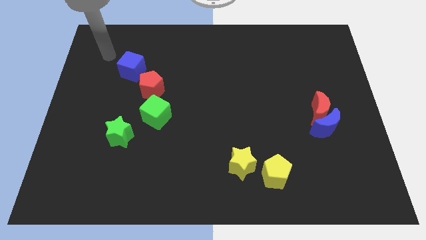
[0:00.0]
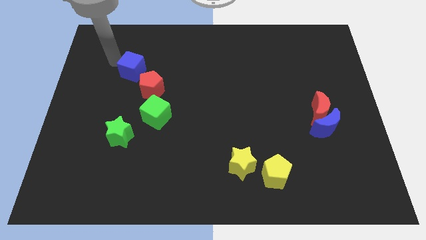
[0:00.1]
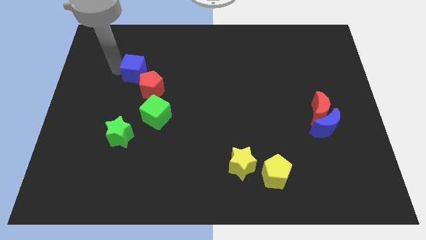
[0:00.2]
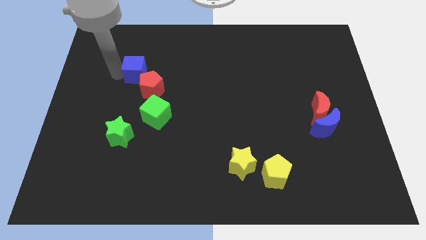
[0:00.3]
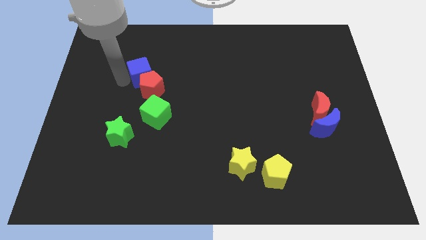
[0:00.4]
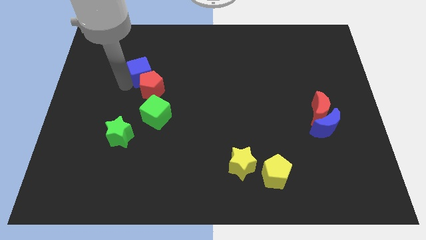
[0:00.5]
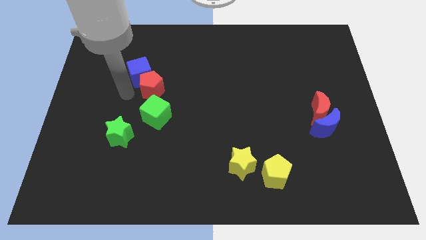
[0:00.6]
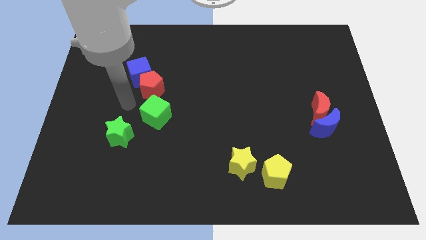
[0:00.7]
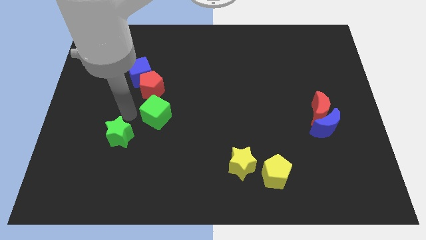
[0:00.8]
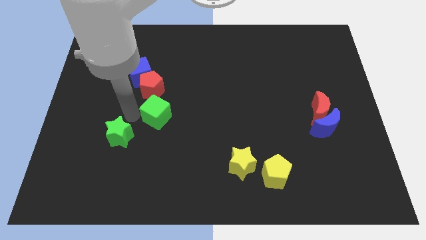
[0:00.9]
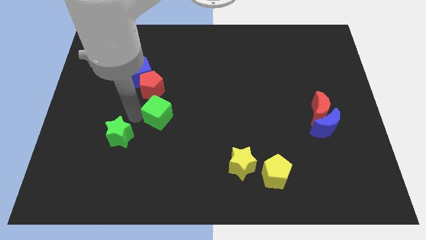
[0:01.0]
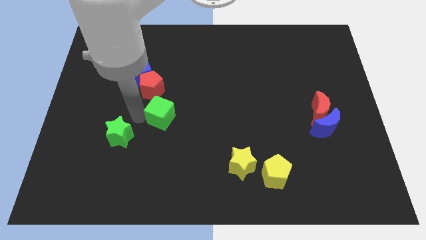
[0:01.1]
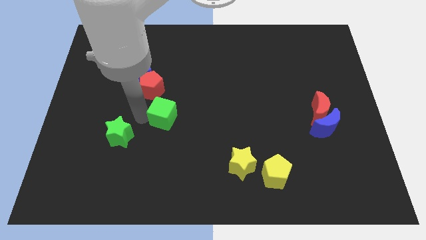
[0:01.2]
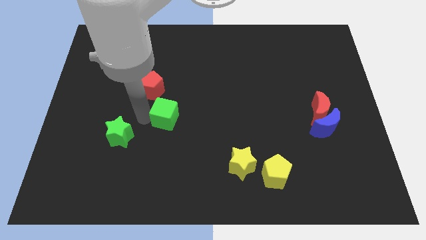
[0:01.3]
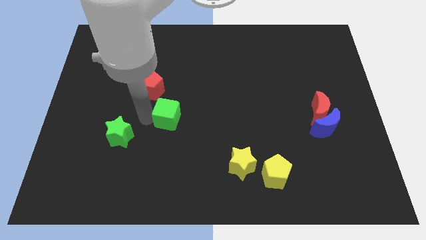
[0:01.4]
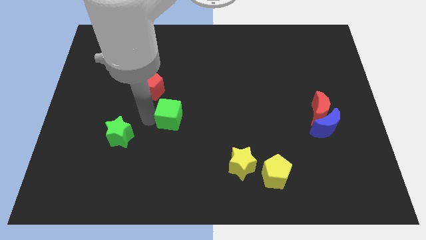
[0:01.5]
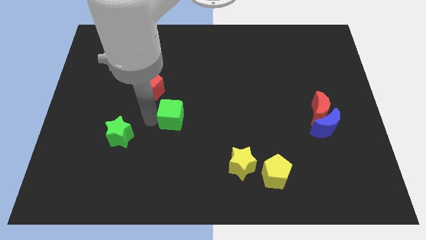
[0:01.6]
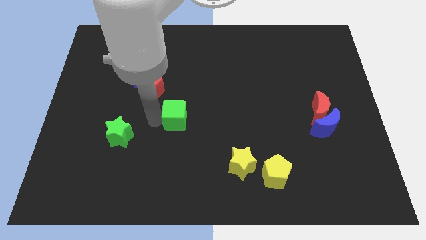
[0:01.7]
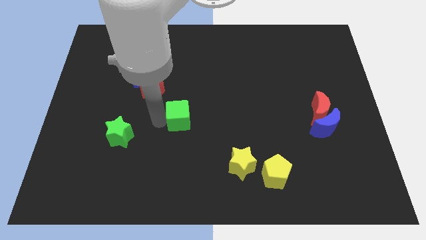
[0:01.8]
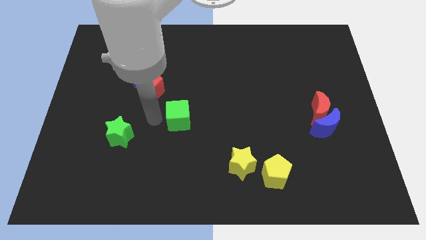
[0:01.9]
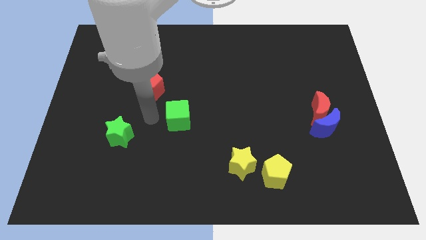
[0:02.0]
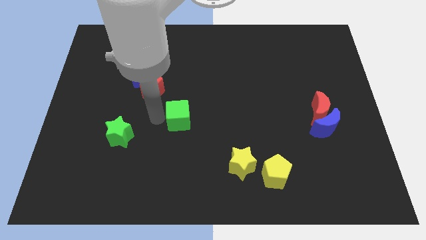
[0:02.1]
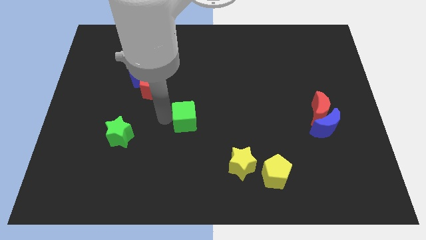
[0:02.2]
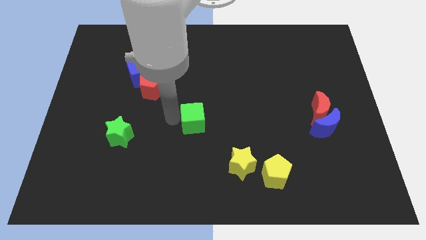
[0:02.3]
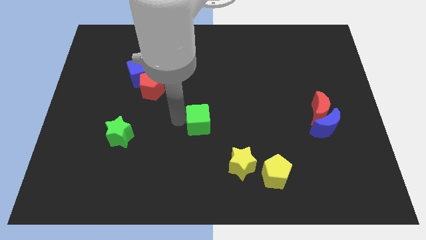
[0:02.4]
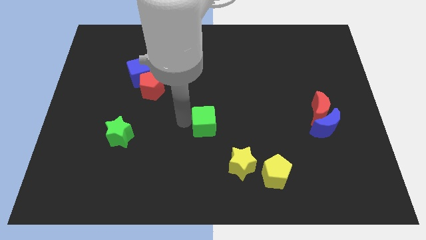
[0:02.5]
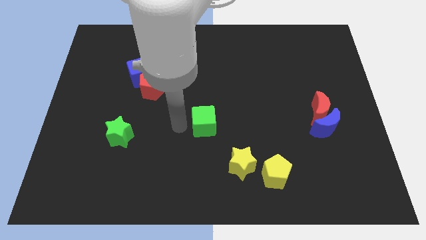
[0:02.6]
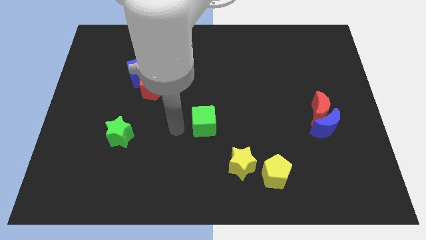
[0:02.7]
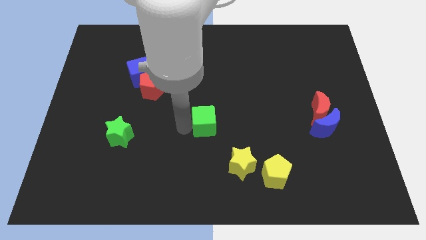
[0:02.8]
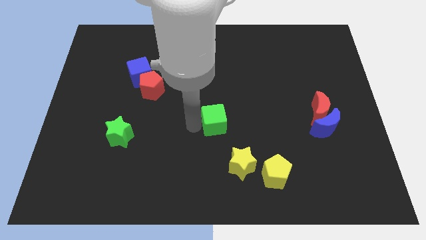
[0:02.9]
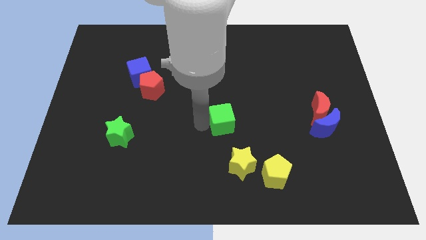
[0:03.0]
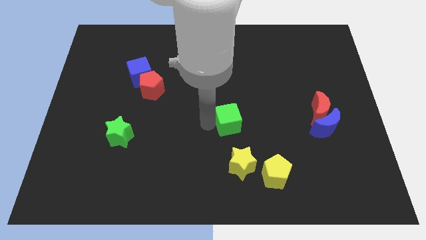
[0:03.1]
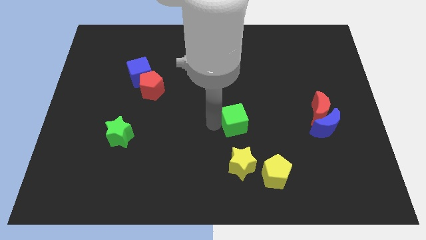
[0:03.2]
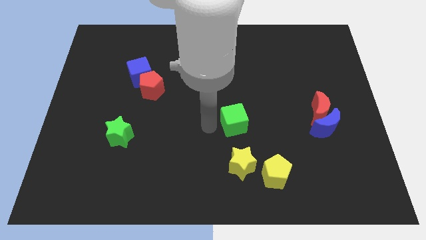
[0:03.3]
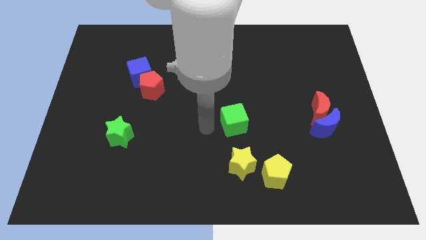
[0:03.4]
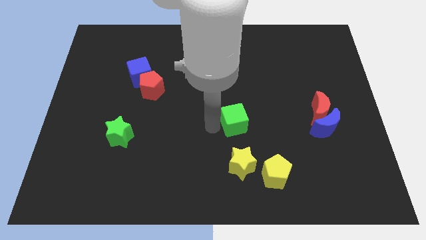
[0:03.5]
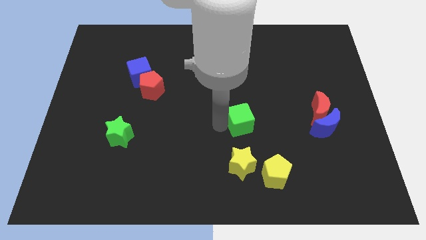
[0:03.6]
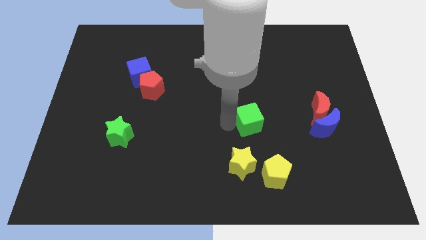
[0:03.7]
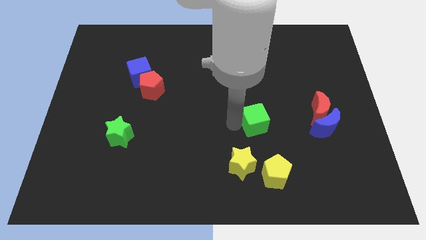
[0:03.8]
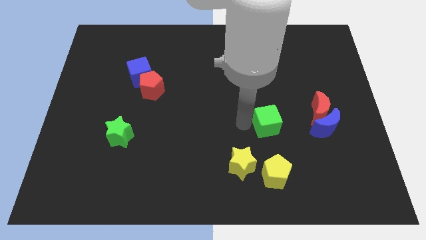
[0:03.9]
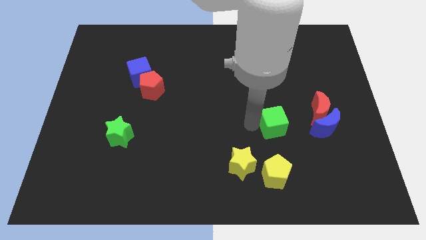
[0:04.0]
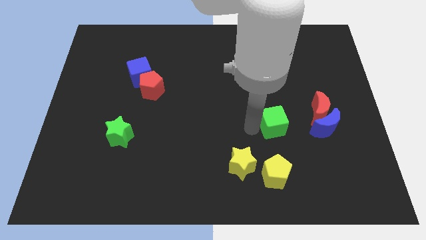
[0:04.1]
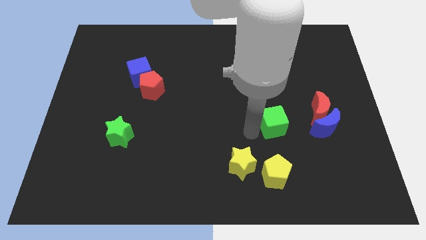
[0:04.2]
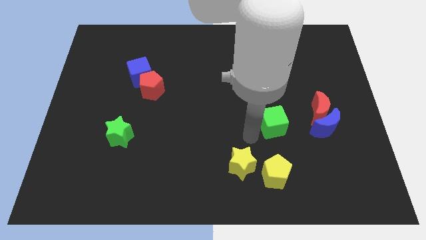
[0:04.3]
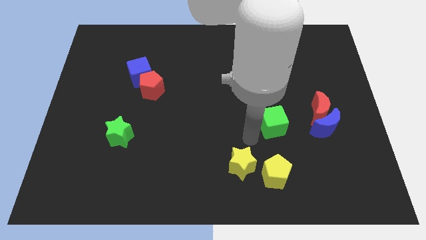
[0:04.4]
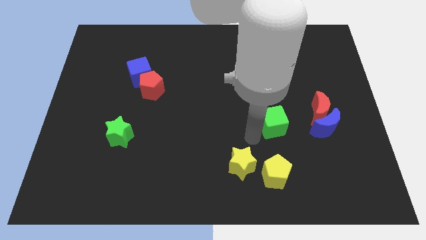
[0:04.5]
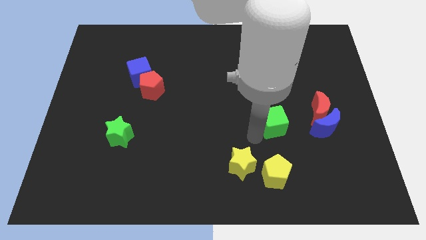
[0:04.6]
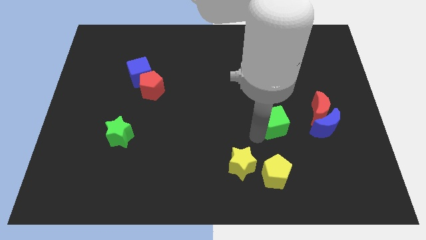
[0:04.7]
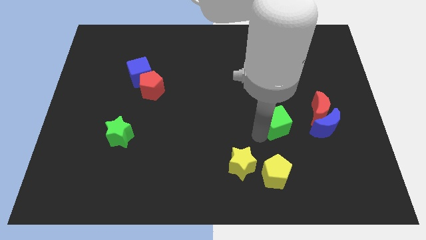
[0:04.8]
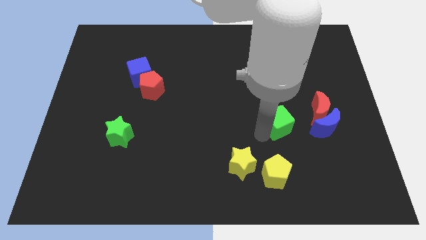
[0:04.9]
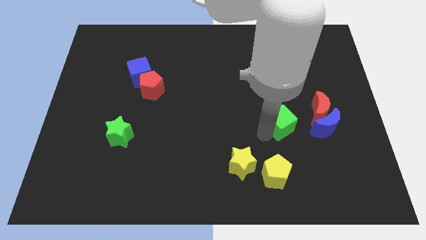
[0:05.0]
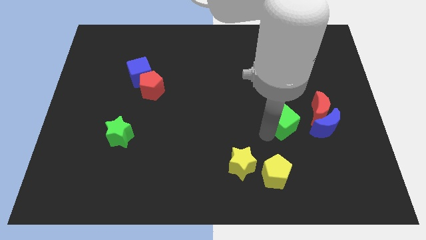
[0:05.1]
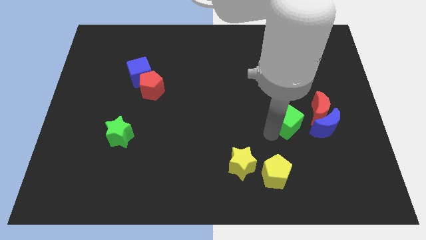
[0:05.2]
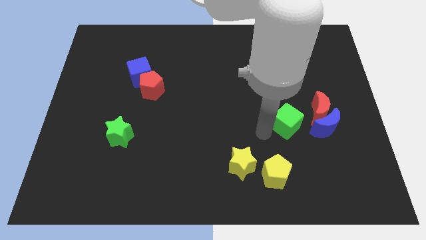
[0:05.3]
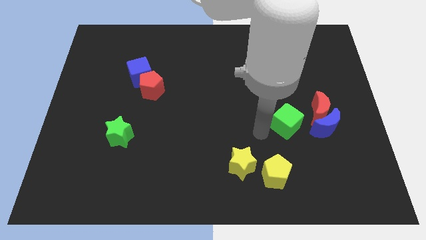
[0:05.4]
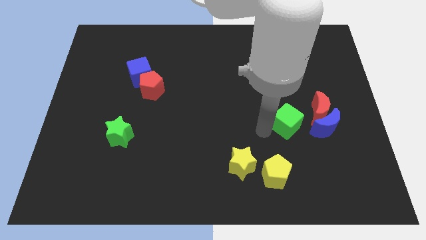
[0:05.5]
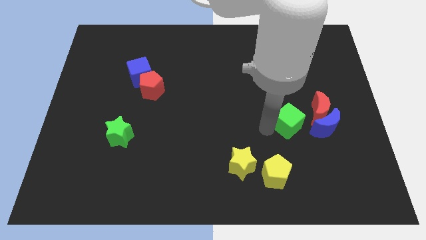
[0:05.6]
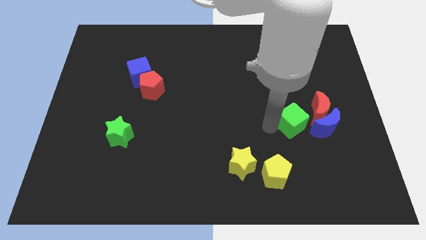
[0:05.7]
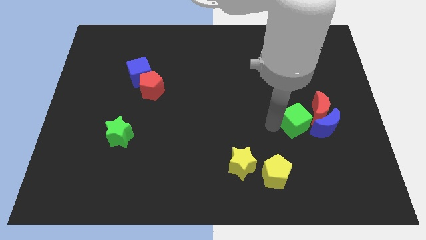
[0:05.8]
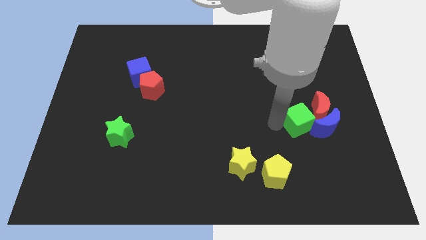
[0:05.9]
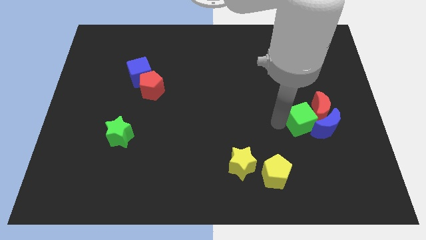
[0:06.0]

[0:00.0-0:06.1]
push the green cube next to the red moon

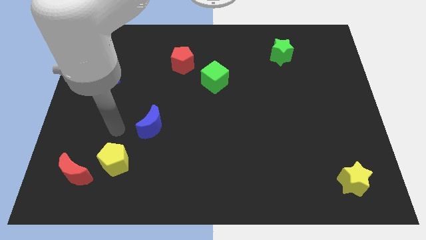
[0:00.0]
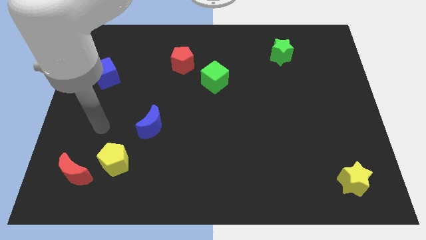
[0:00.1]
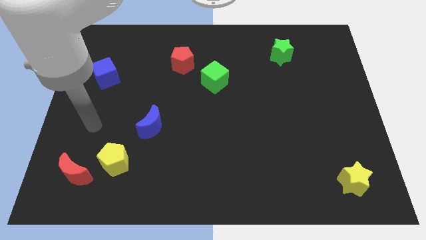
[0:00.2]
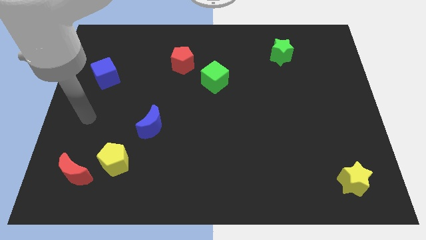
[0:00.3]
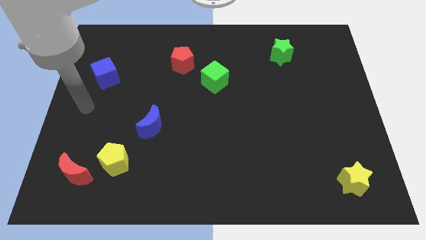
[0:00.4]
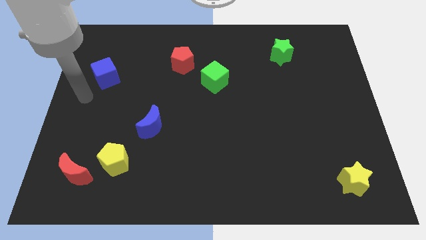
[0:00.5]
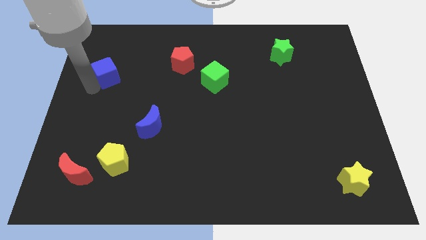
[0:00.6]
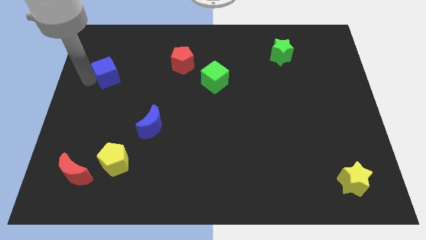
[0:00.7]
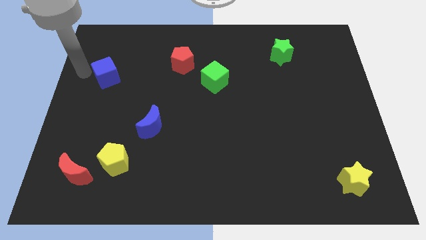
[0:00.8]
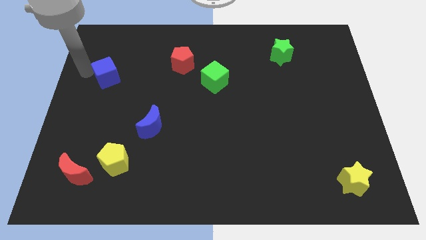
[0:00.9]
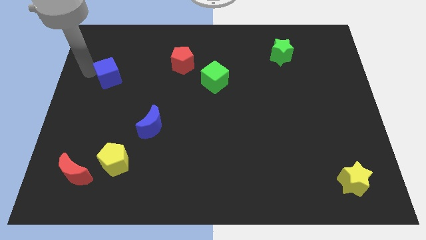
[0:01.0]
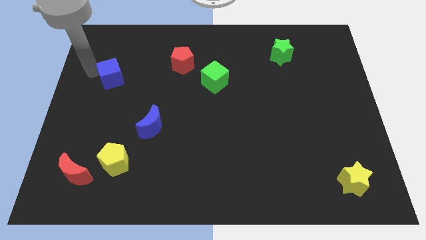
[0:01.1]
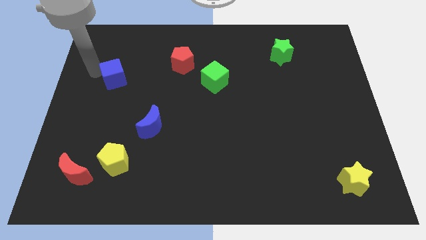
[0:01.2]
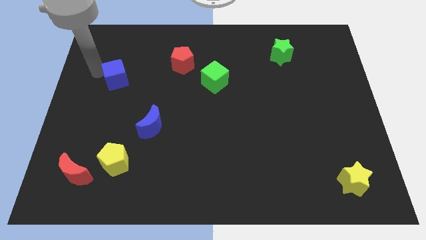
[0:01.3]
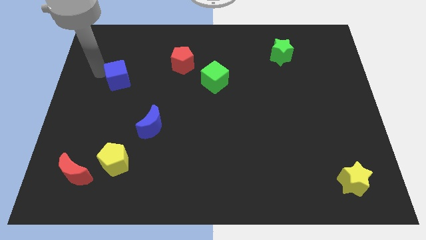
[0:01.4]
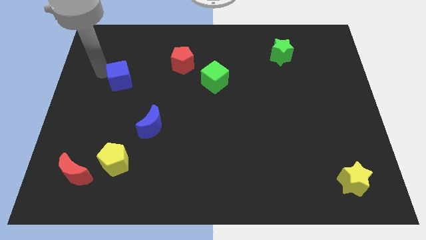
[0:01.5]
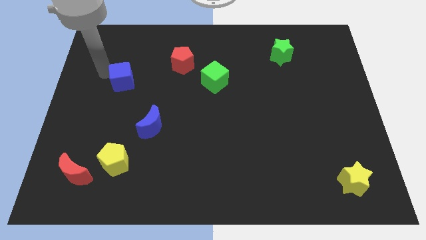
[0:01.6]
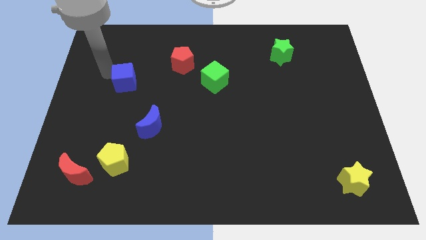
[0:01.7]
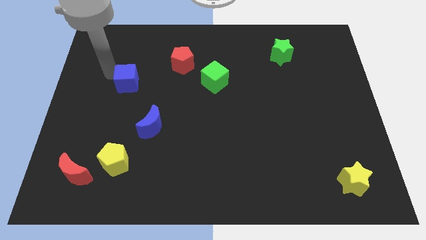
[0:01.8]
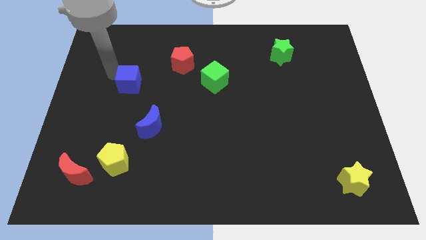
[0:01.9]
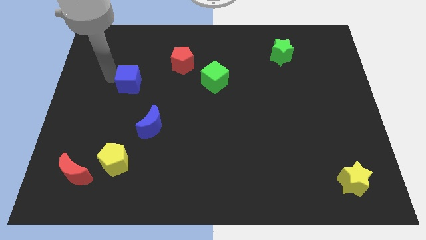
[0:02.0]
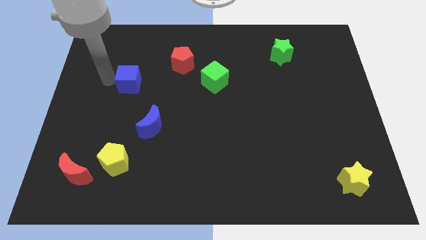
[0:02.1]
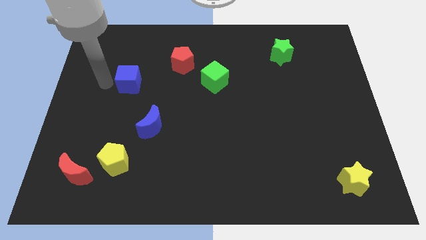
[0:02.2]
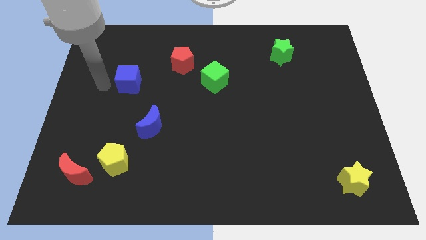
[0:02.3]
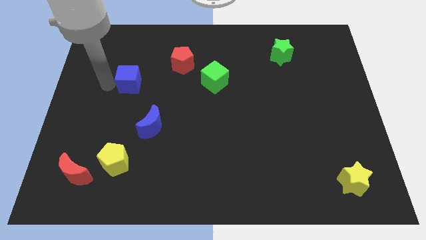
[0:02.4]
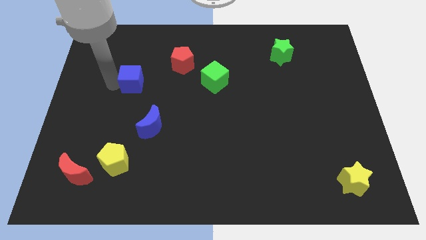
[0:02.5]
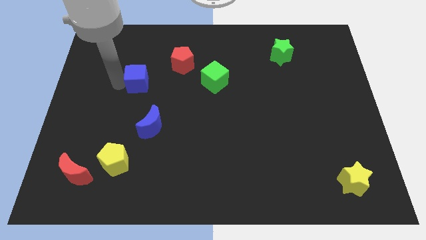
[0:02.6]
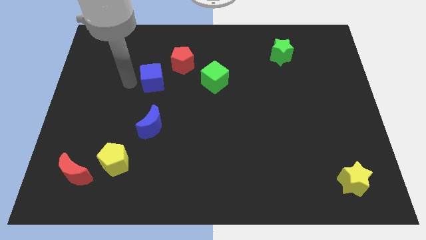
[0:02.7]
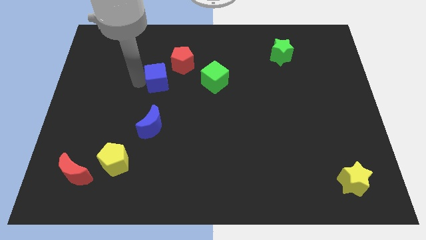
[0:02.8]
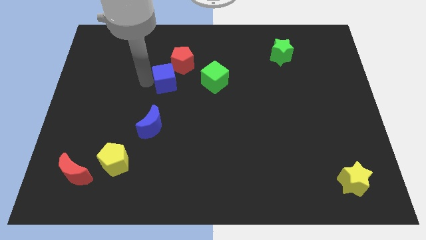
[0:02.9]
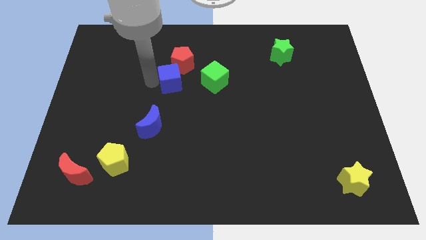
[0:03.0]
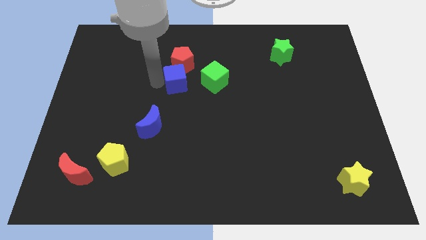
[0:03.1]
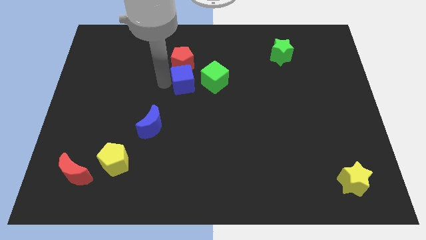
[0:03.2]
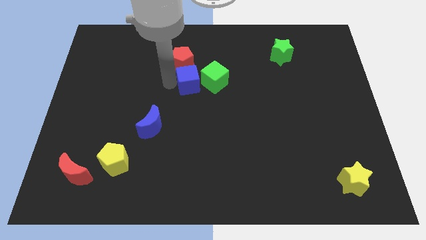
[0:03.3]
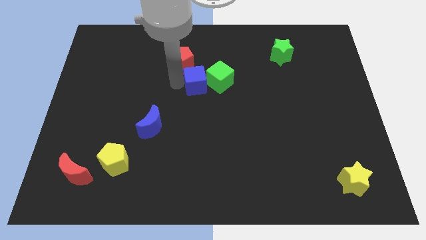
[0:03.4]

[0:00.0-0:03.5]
push the blue cube next to the green cube
